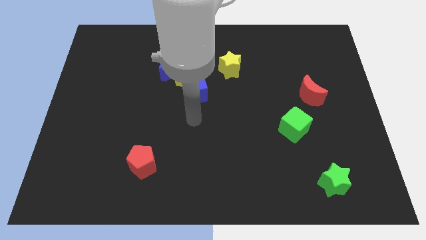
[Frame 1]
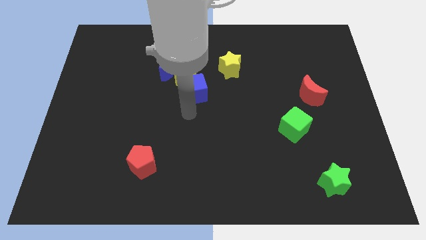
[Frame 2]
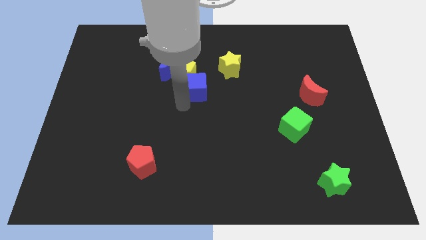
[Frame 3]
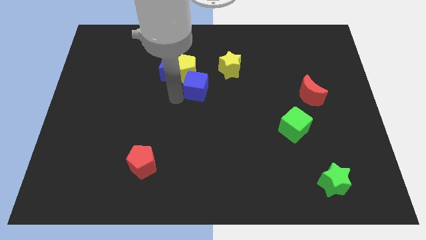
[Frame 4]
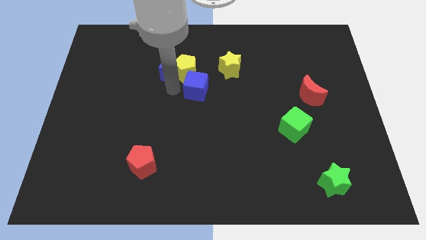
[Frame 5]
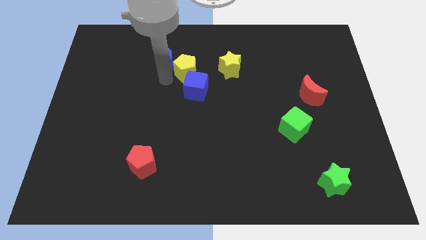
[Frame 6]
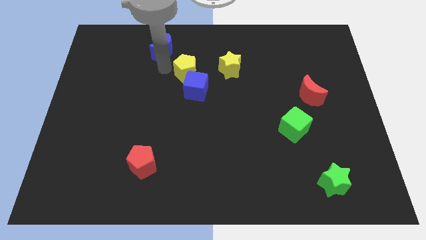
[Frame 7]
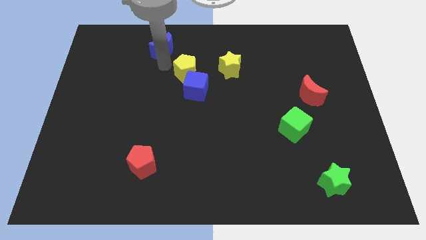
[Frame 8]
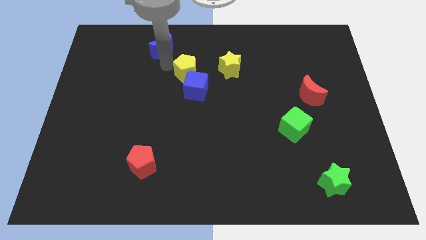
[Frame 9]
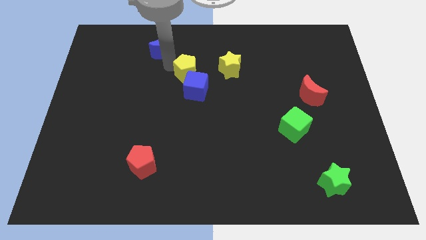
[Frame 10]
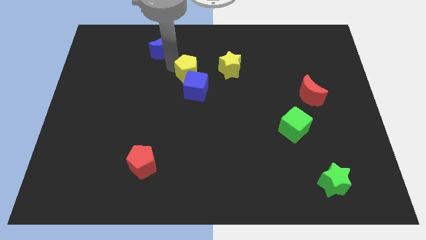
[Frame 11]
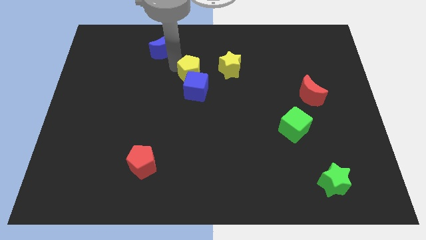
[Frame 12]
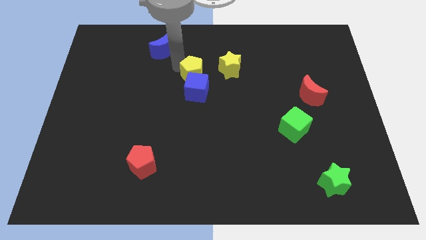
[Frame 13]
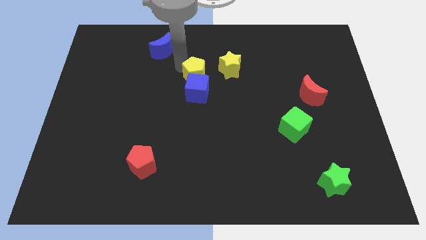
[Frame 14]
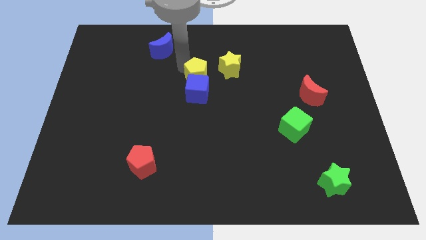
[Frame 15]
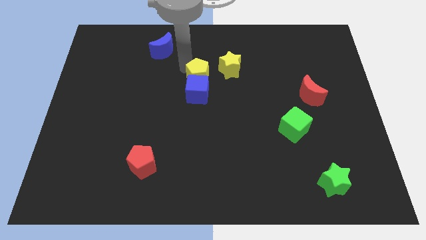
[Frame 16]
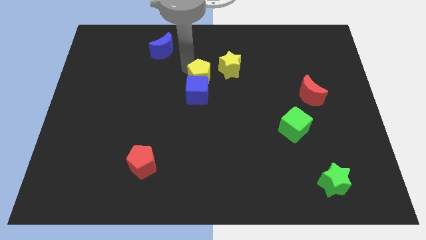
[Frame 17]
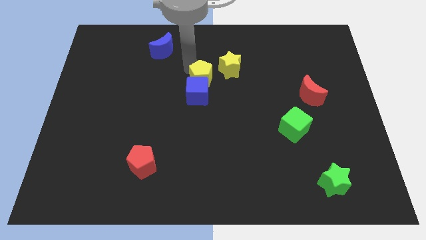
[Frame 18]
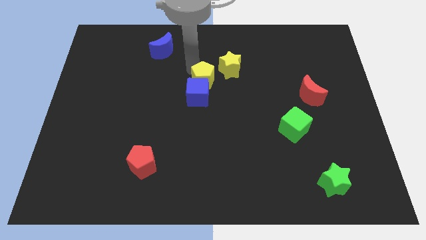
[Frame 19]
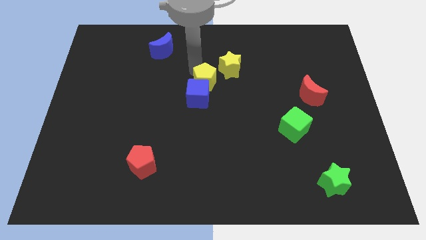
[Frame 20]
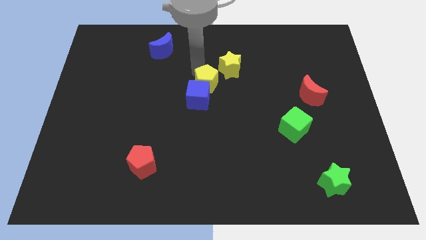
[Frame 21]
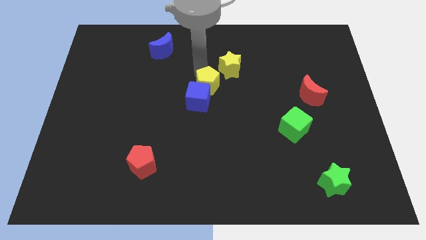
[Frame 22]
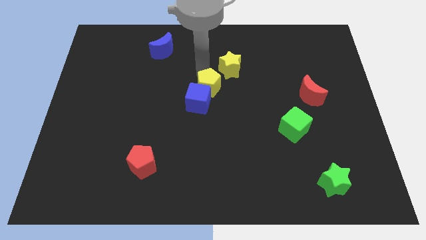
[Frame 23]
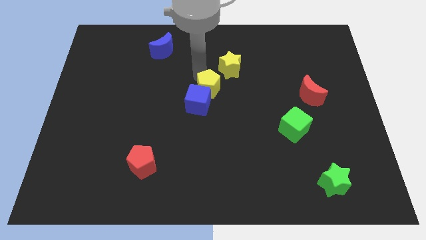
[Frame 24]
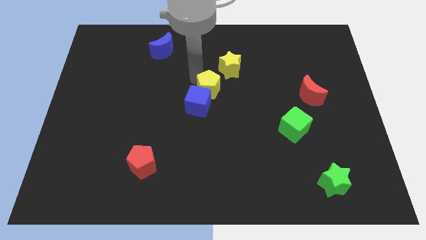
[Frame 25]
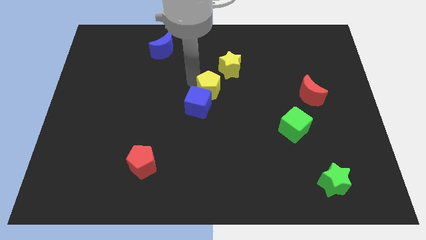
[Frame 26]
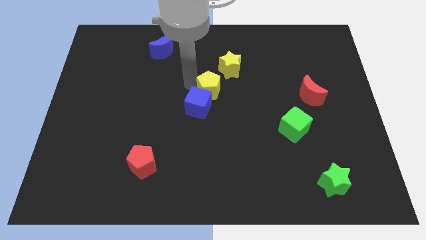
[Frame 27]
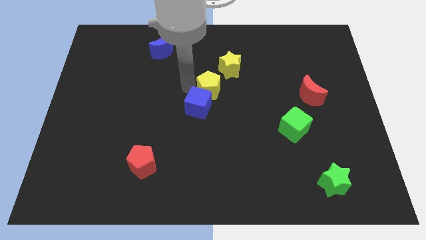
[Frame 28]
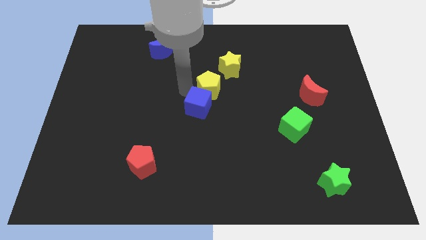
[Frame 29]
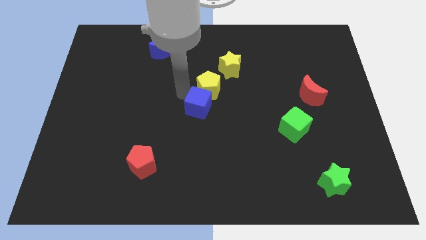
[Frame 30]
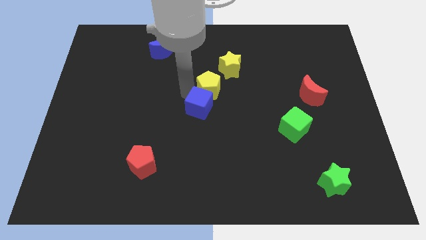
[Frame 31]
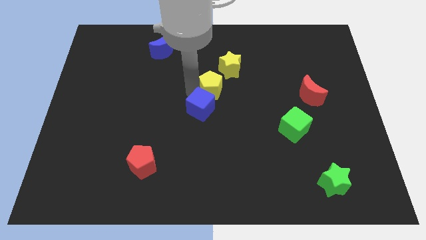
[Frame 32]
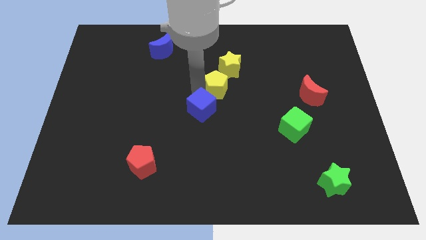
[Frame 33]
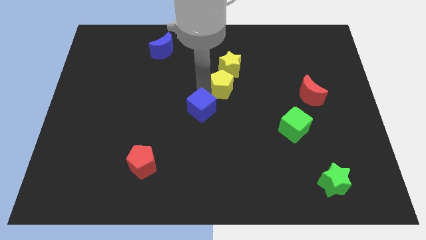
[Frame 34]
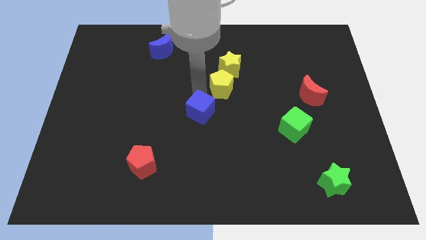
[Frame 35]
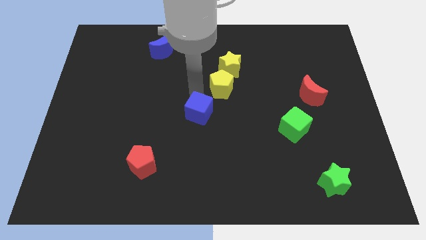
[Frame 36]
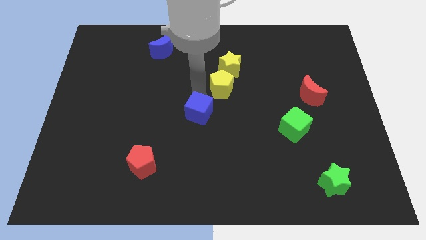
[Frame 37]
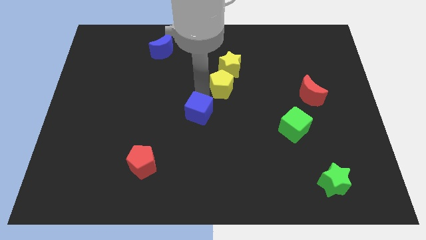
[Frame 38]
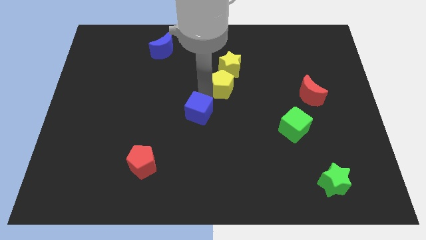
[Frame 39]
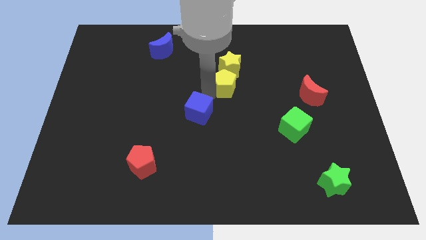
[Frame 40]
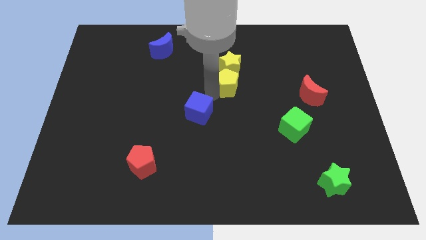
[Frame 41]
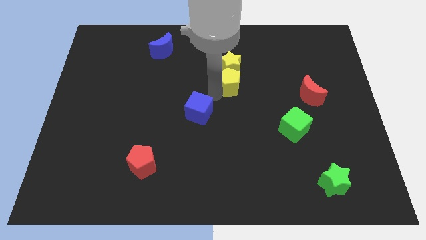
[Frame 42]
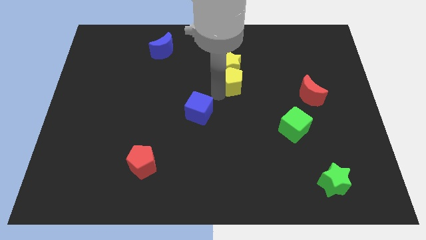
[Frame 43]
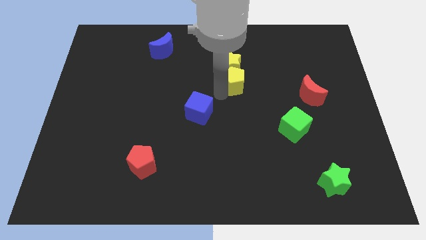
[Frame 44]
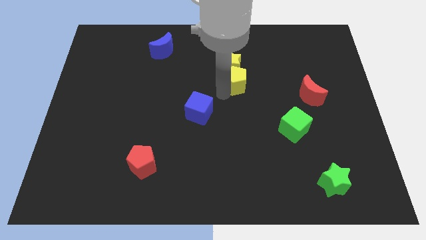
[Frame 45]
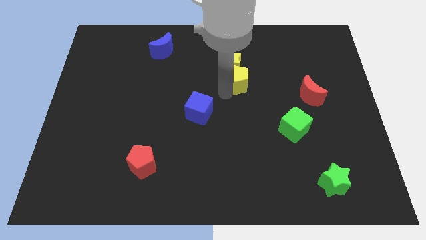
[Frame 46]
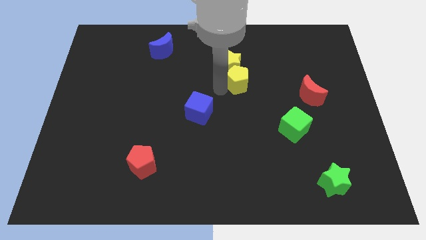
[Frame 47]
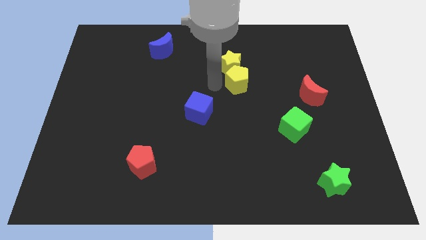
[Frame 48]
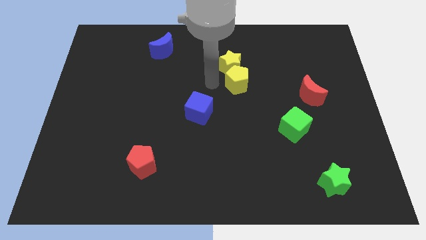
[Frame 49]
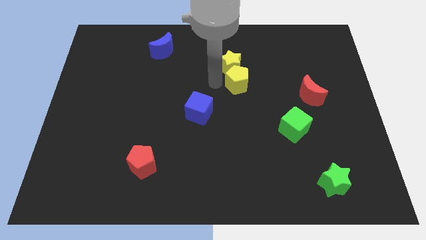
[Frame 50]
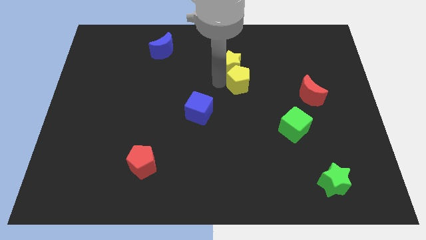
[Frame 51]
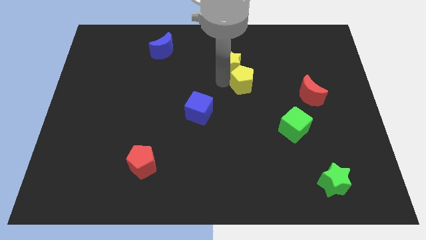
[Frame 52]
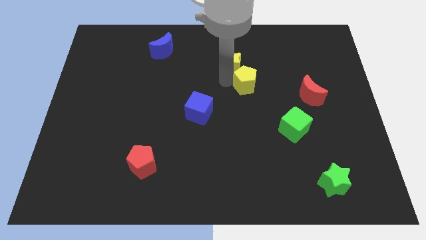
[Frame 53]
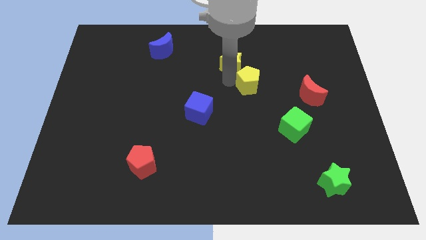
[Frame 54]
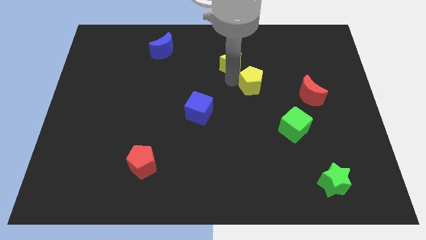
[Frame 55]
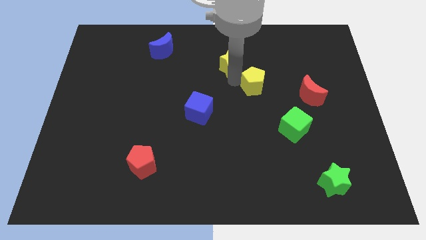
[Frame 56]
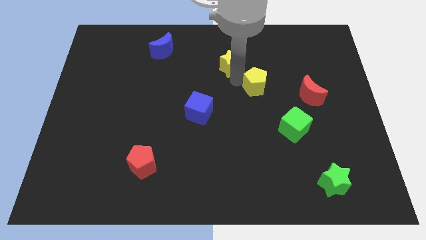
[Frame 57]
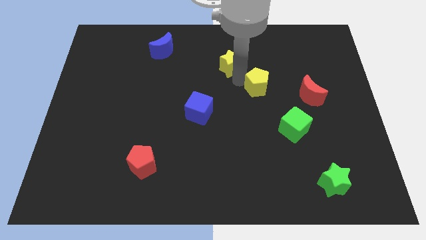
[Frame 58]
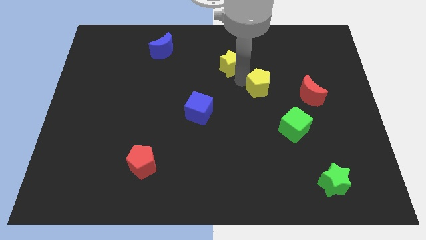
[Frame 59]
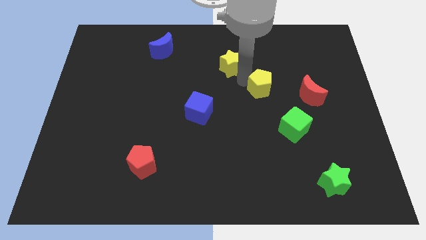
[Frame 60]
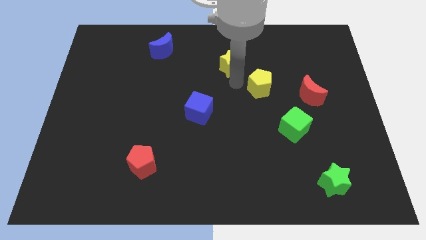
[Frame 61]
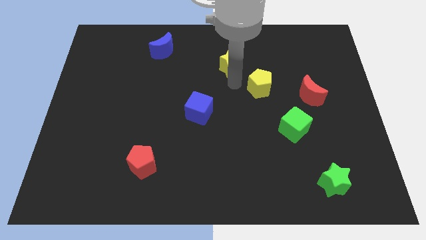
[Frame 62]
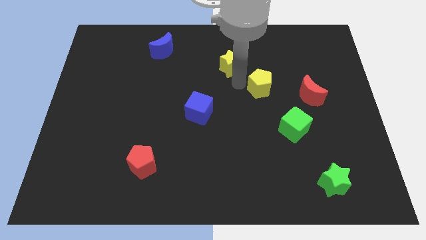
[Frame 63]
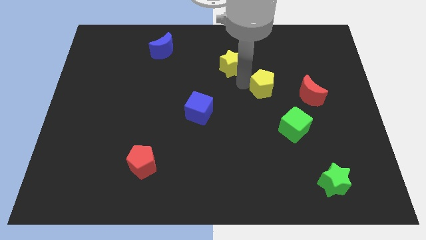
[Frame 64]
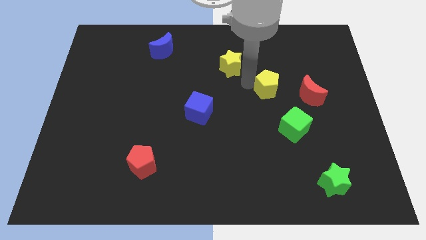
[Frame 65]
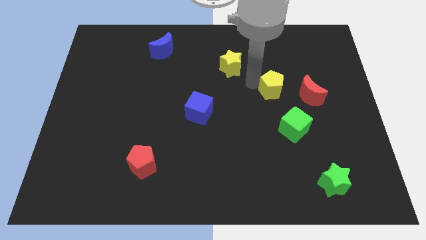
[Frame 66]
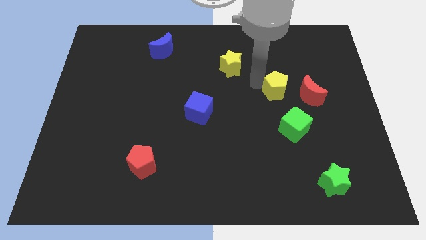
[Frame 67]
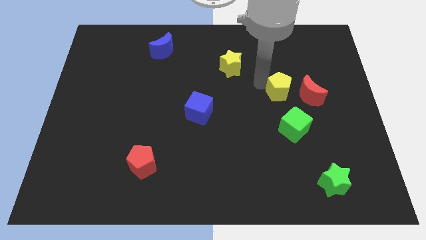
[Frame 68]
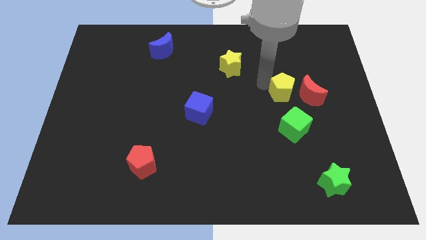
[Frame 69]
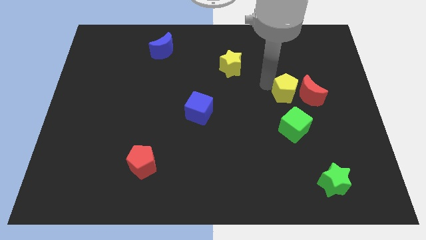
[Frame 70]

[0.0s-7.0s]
move the yellow pentagon towards the red moon

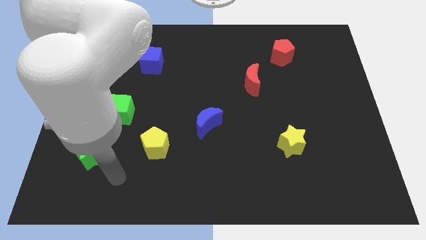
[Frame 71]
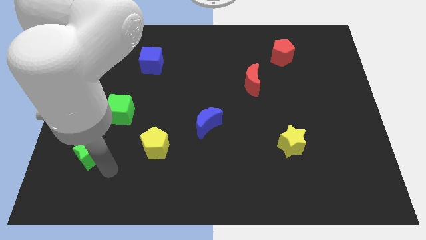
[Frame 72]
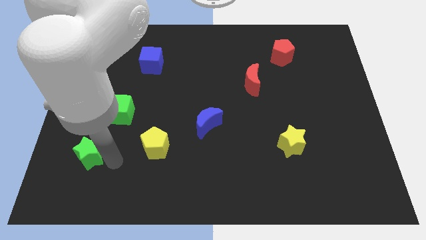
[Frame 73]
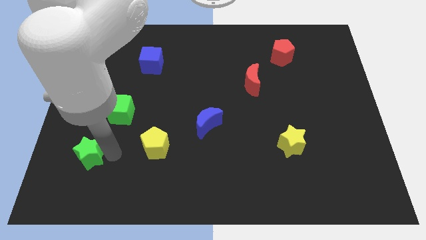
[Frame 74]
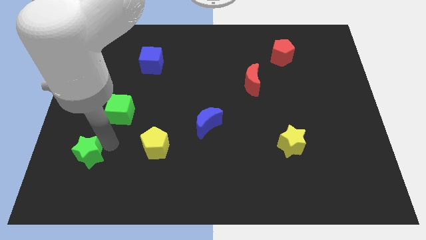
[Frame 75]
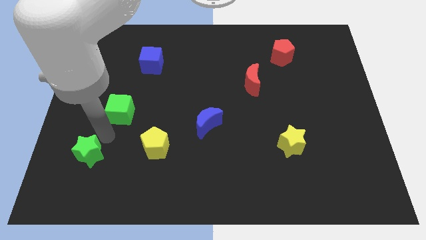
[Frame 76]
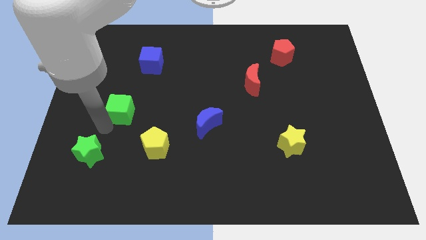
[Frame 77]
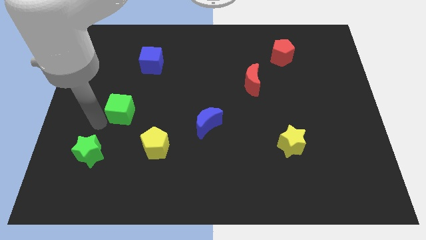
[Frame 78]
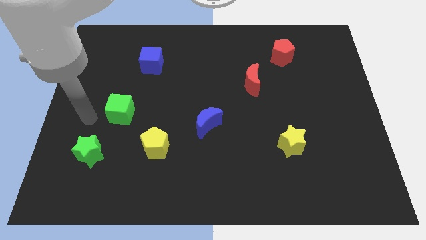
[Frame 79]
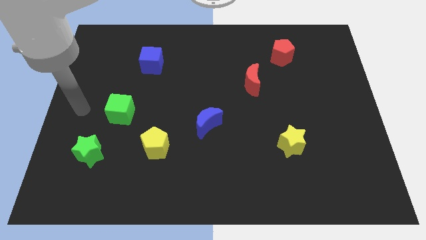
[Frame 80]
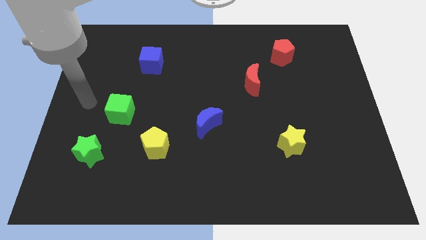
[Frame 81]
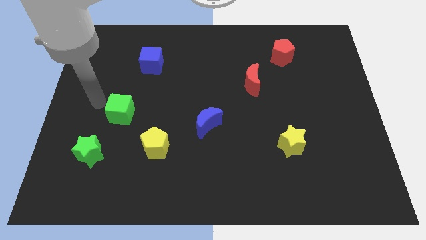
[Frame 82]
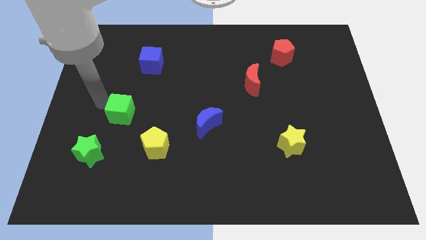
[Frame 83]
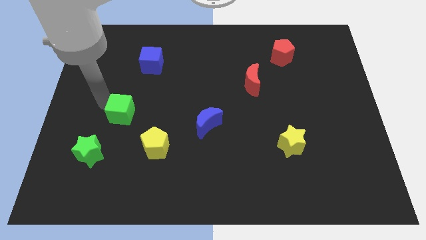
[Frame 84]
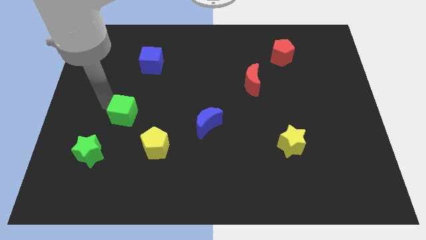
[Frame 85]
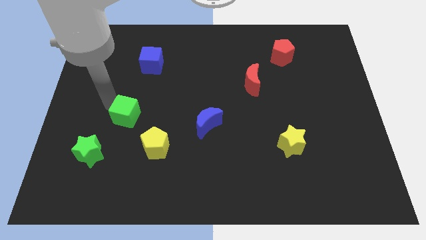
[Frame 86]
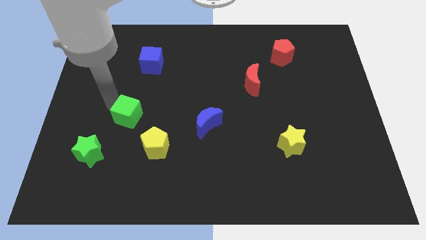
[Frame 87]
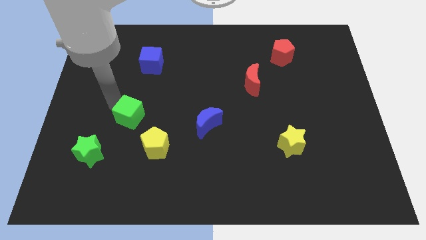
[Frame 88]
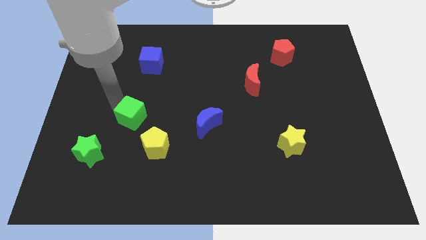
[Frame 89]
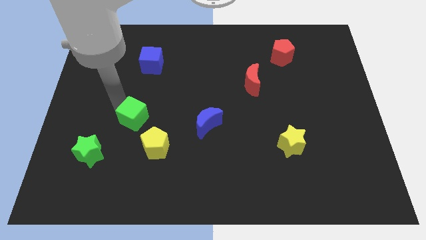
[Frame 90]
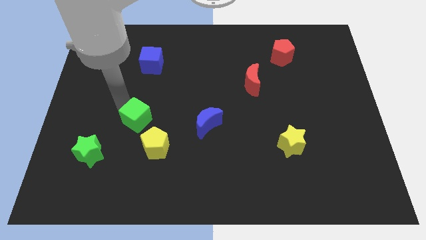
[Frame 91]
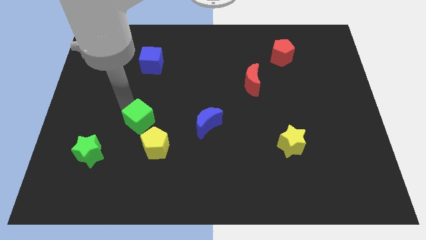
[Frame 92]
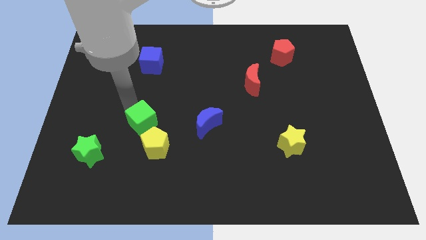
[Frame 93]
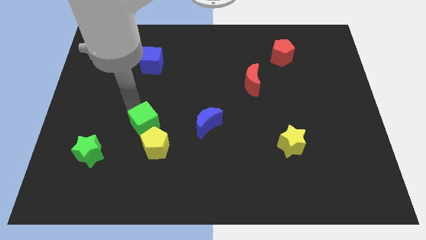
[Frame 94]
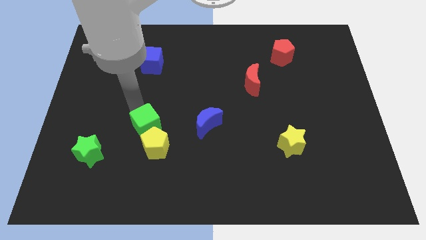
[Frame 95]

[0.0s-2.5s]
put the green cube next to the yellow pentagon
